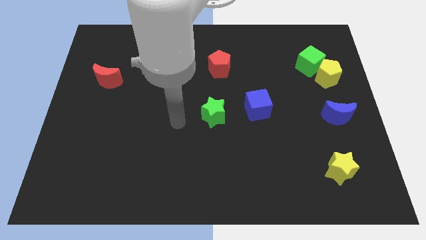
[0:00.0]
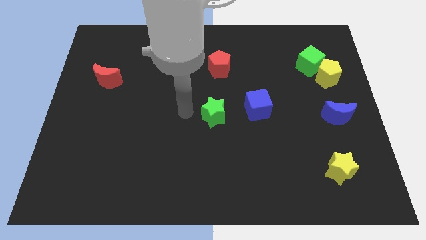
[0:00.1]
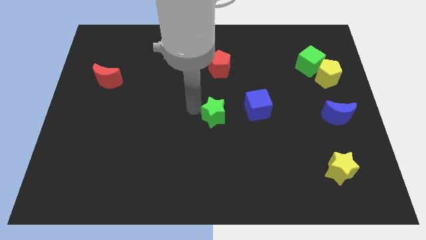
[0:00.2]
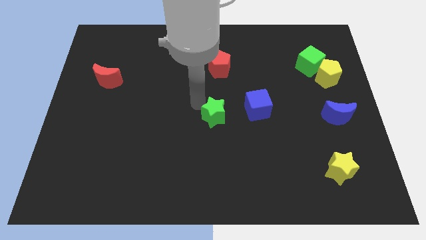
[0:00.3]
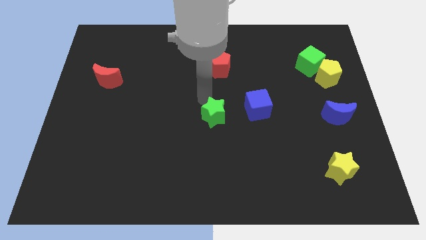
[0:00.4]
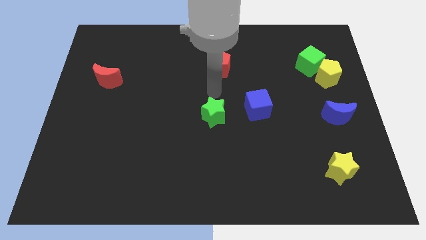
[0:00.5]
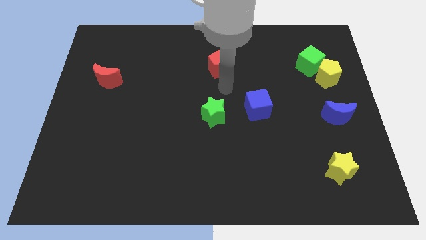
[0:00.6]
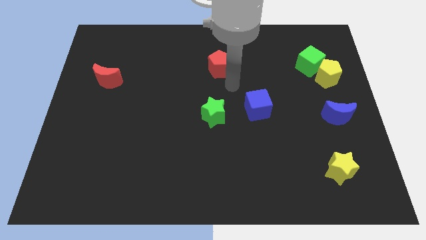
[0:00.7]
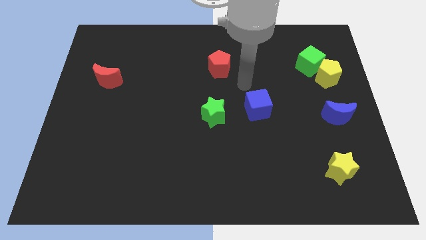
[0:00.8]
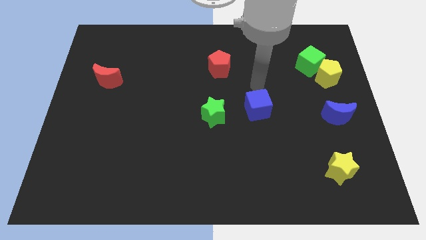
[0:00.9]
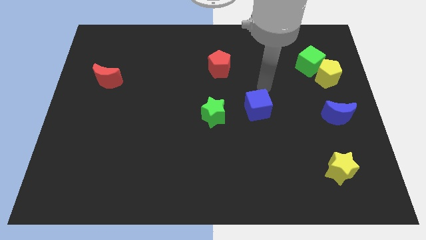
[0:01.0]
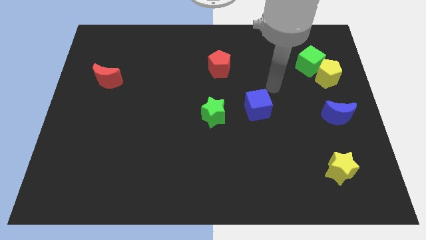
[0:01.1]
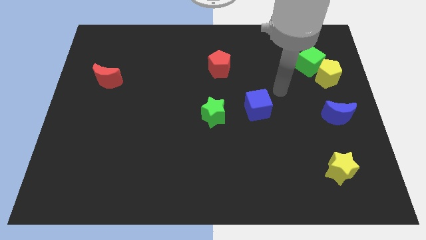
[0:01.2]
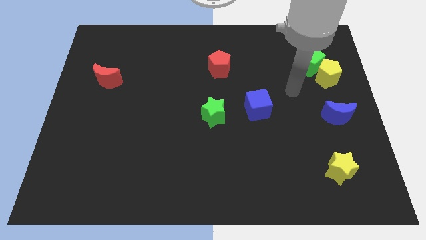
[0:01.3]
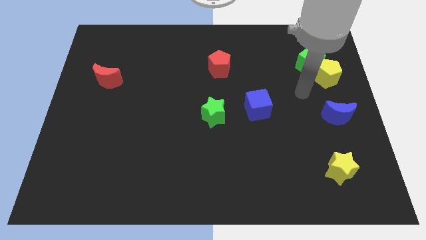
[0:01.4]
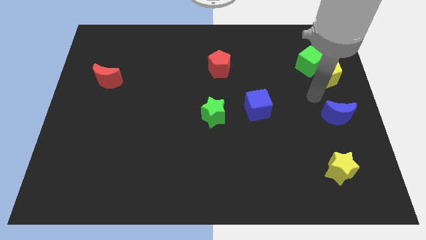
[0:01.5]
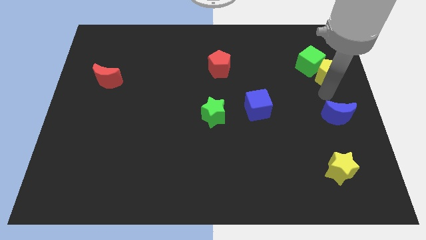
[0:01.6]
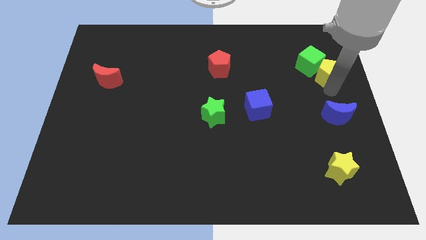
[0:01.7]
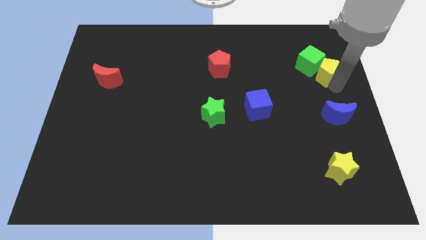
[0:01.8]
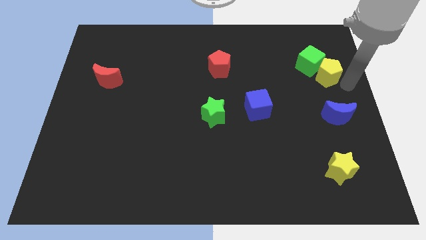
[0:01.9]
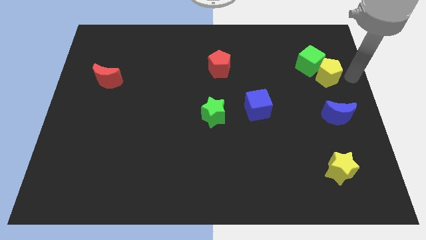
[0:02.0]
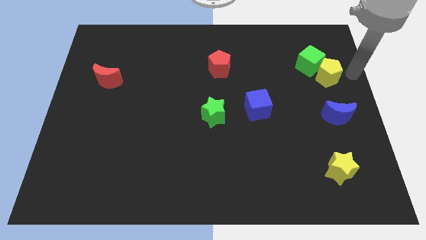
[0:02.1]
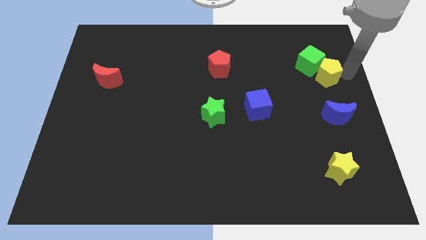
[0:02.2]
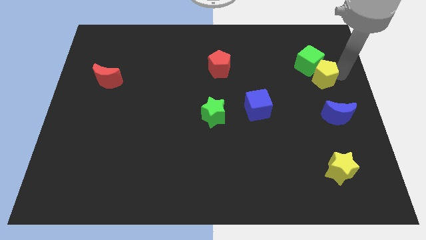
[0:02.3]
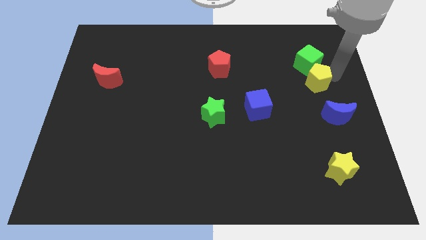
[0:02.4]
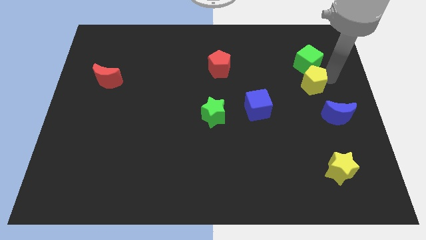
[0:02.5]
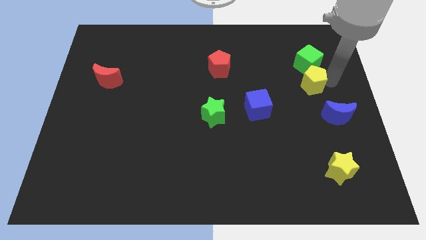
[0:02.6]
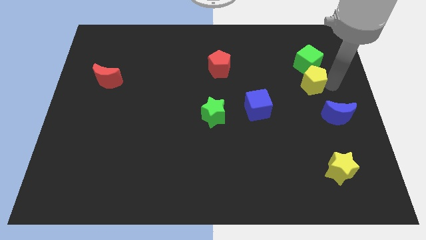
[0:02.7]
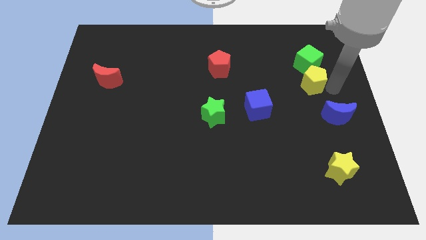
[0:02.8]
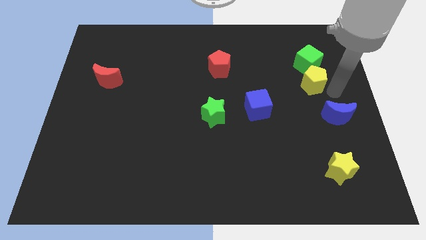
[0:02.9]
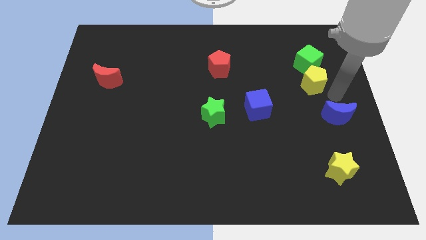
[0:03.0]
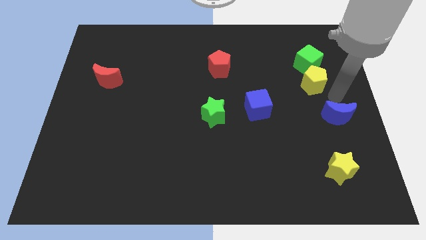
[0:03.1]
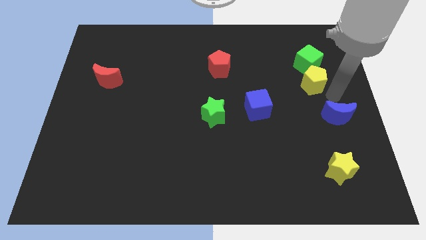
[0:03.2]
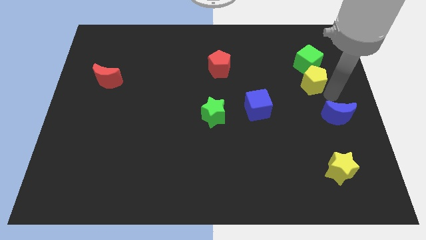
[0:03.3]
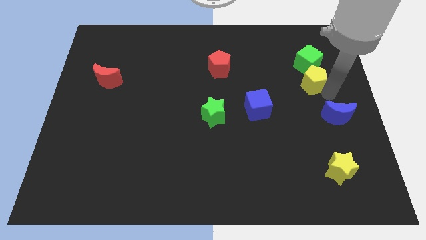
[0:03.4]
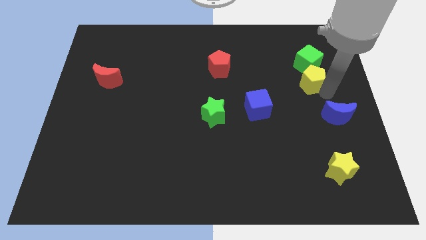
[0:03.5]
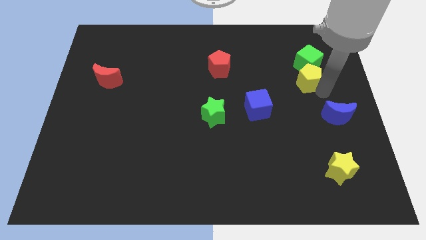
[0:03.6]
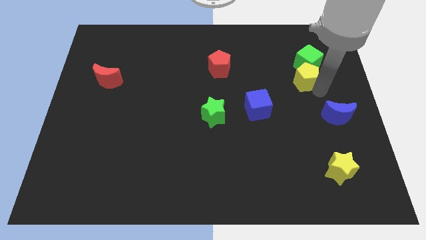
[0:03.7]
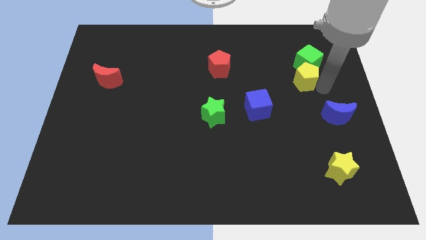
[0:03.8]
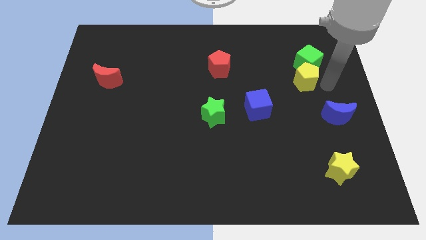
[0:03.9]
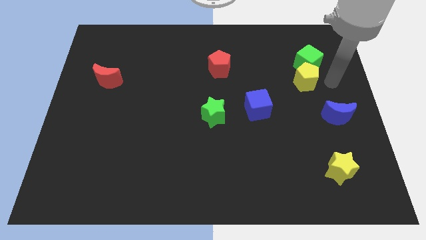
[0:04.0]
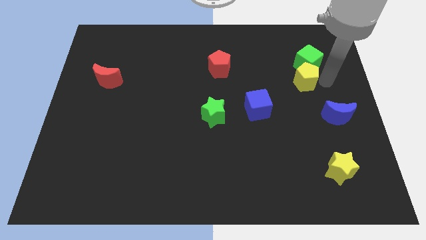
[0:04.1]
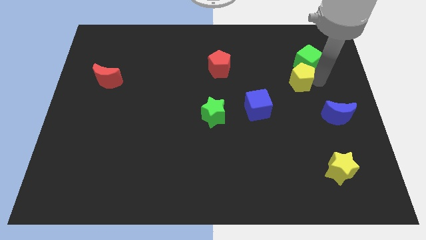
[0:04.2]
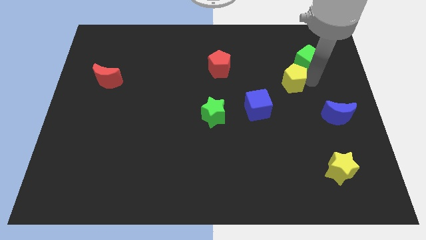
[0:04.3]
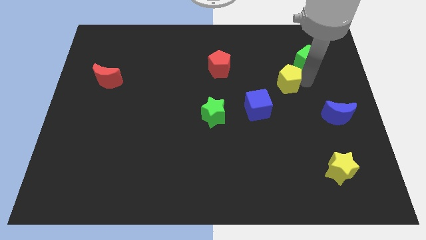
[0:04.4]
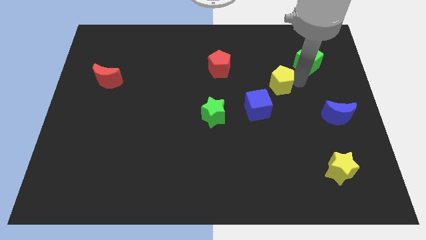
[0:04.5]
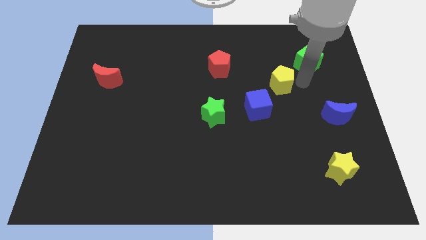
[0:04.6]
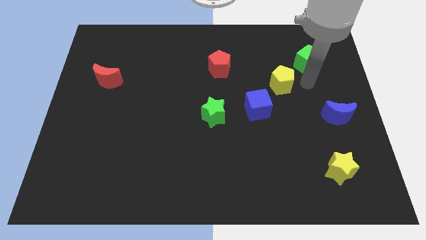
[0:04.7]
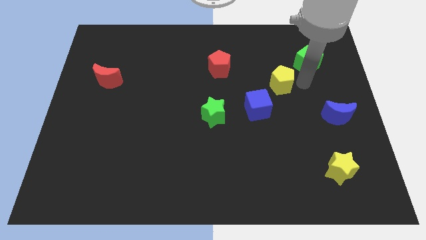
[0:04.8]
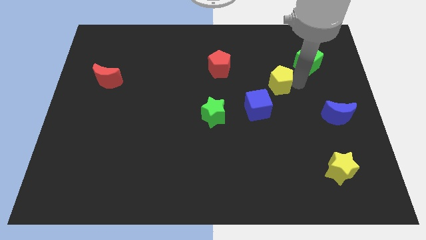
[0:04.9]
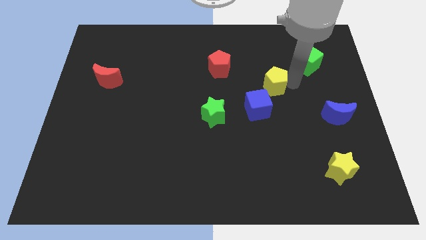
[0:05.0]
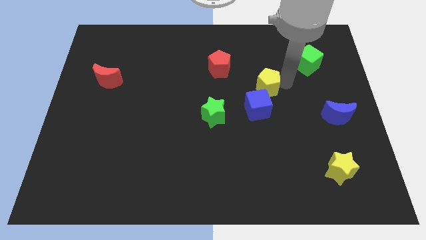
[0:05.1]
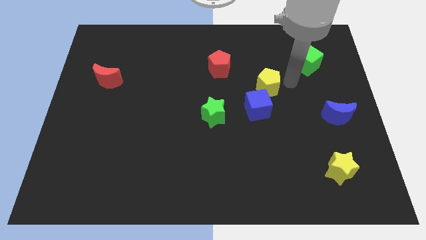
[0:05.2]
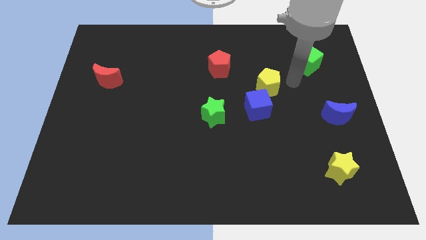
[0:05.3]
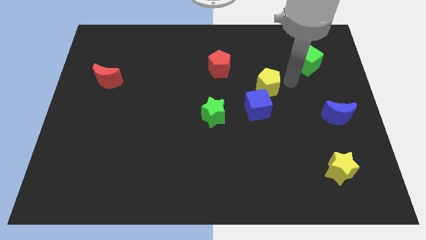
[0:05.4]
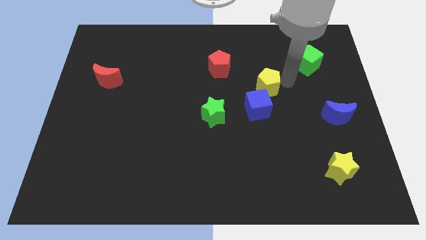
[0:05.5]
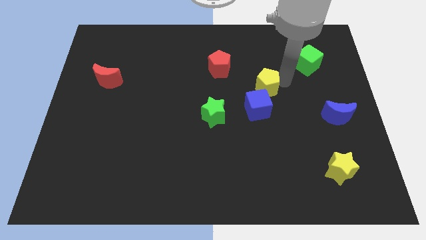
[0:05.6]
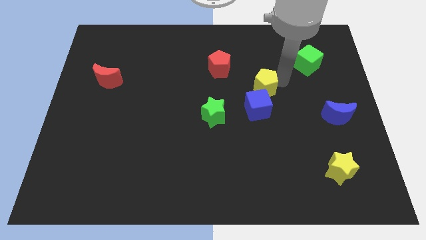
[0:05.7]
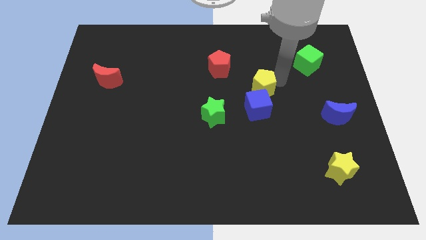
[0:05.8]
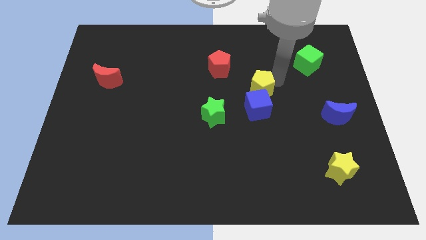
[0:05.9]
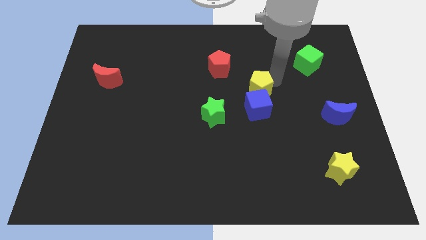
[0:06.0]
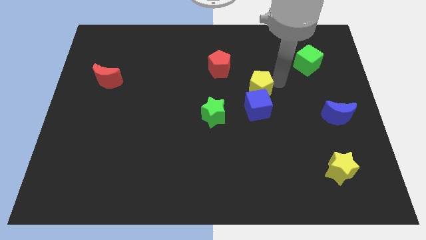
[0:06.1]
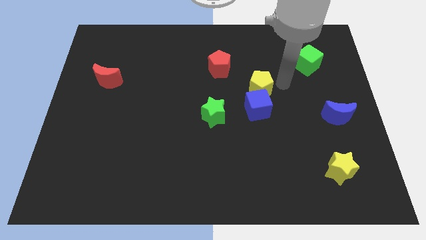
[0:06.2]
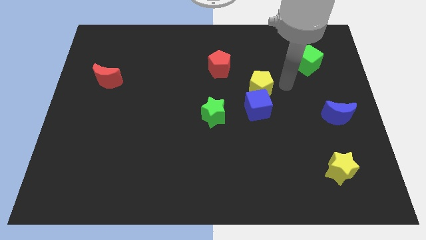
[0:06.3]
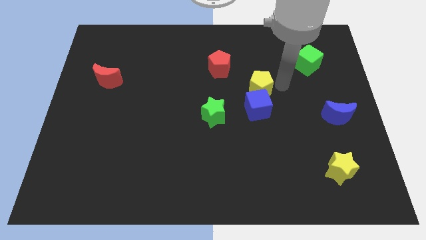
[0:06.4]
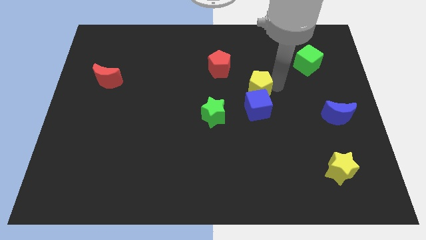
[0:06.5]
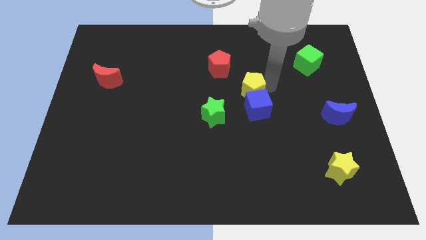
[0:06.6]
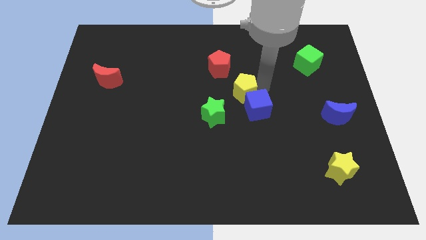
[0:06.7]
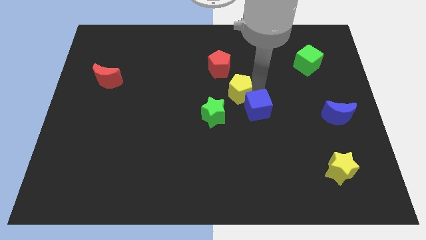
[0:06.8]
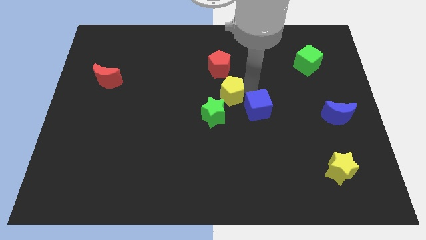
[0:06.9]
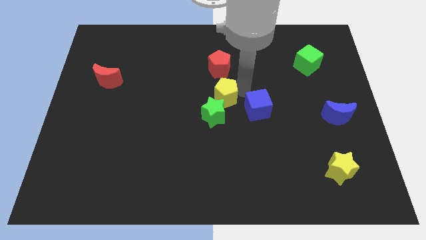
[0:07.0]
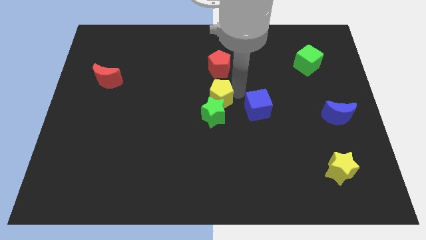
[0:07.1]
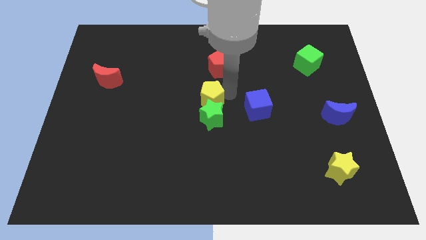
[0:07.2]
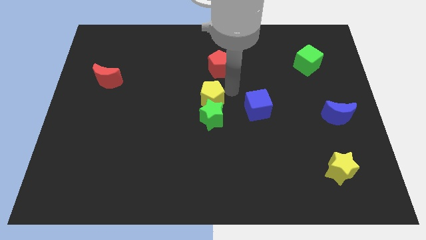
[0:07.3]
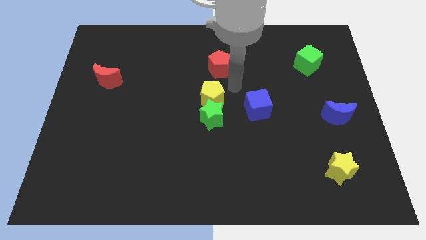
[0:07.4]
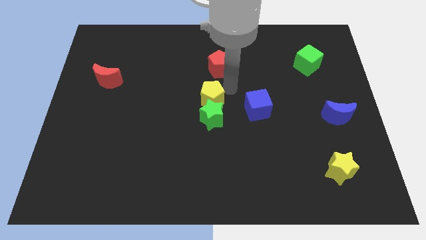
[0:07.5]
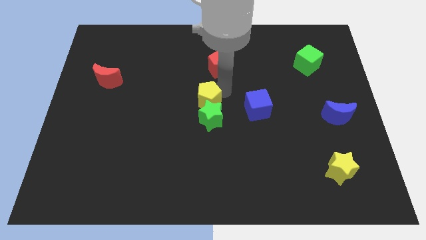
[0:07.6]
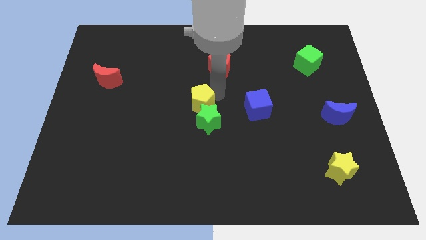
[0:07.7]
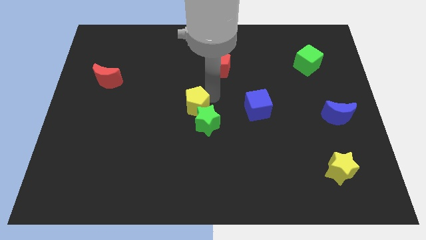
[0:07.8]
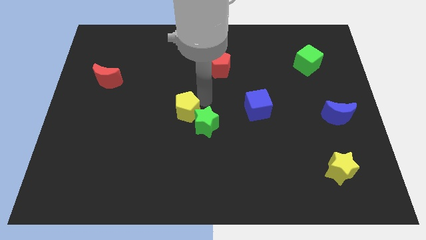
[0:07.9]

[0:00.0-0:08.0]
move the yellow pentagon to the left side of the green star

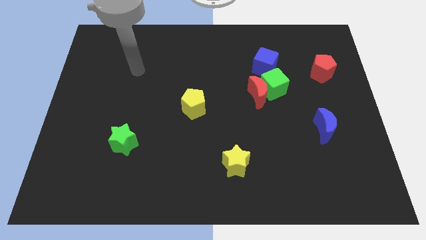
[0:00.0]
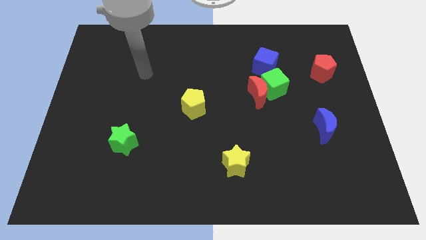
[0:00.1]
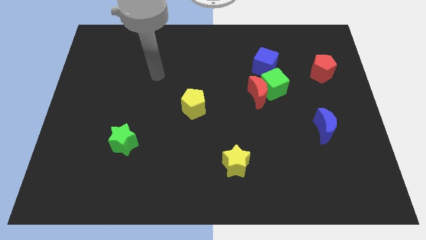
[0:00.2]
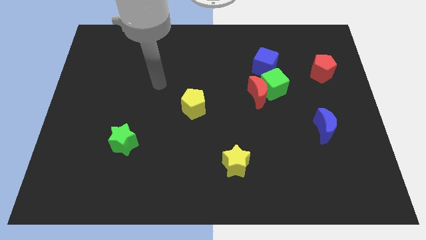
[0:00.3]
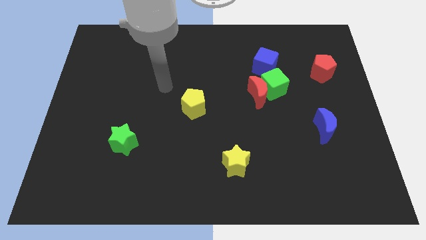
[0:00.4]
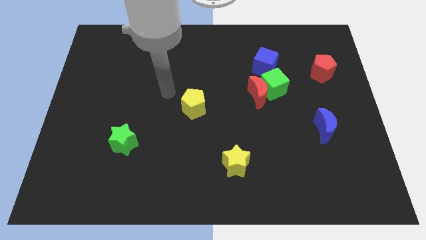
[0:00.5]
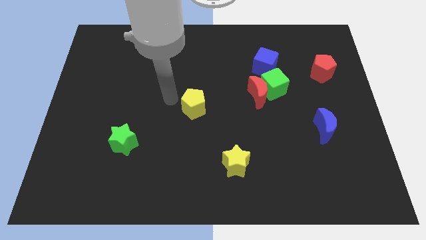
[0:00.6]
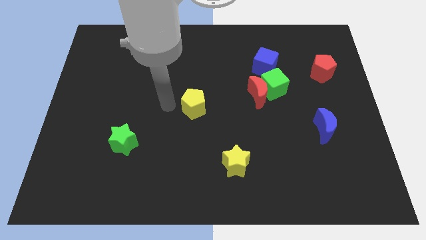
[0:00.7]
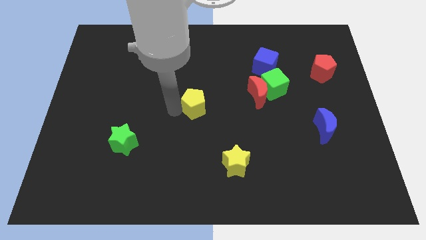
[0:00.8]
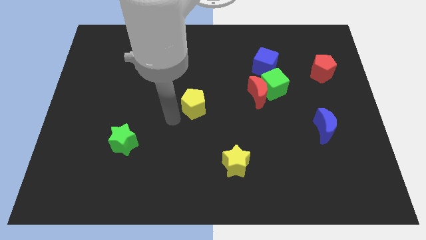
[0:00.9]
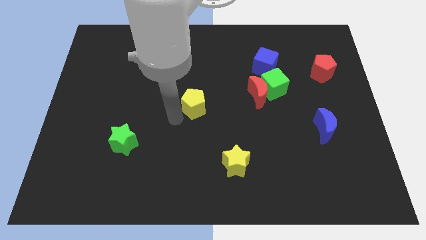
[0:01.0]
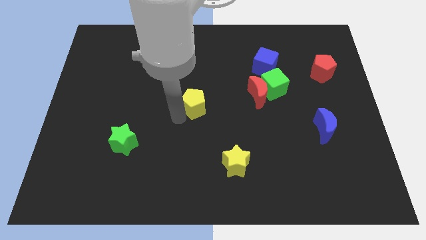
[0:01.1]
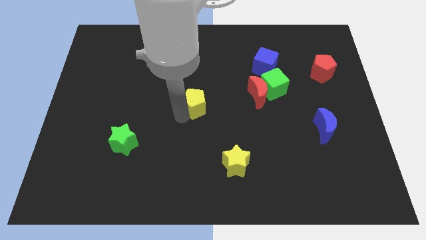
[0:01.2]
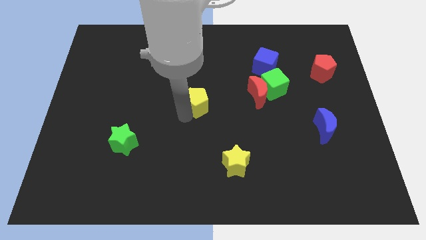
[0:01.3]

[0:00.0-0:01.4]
slide the yellow pentagon to the left of the red moon
